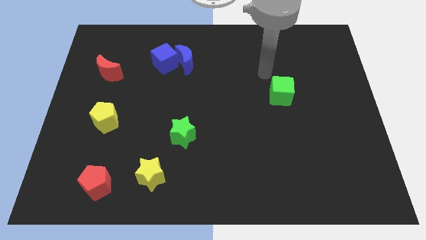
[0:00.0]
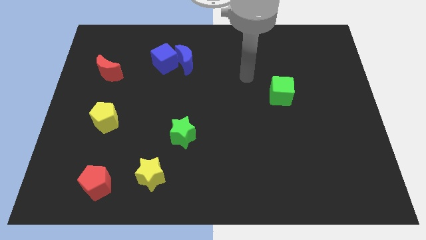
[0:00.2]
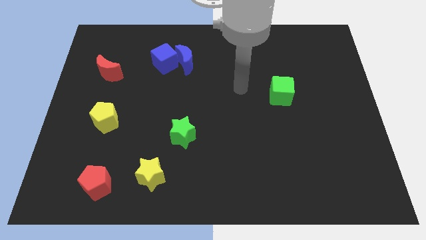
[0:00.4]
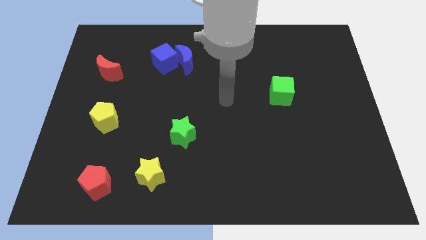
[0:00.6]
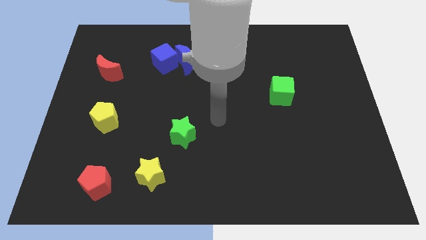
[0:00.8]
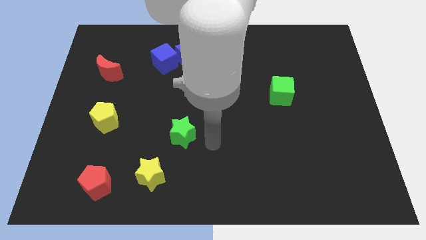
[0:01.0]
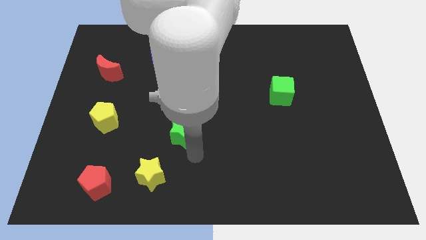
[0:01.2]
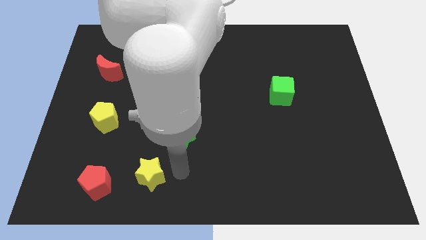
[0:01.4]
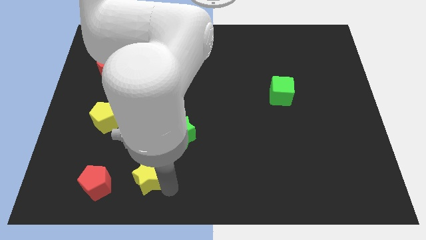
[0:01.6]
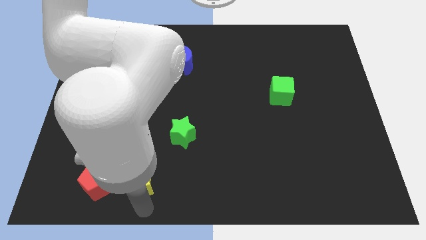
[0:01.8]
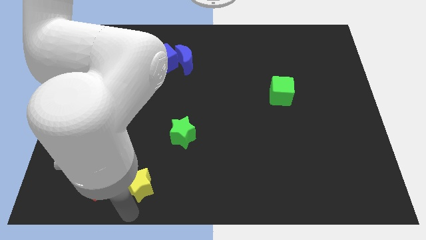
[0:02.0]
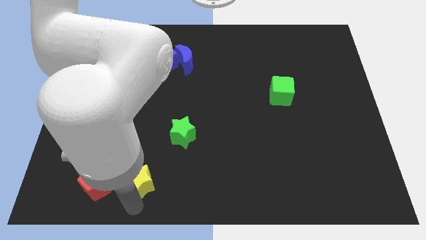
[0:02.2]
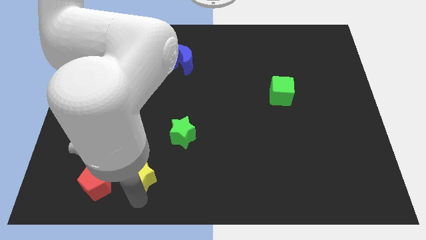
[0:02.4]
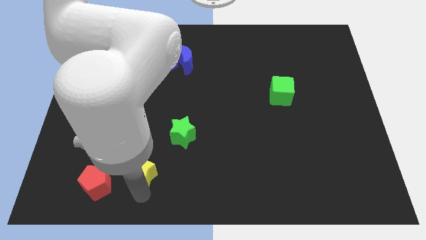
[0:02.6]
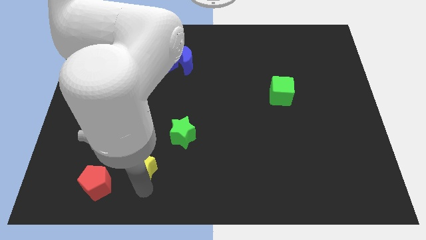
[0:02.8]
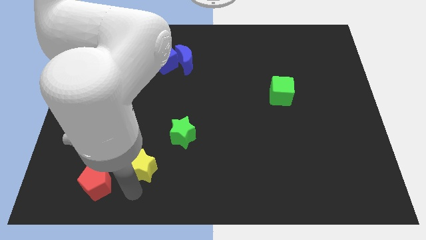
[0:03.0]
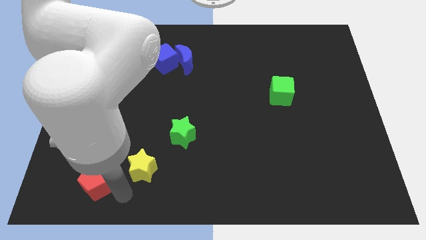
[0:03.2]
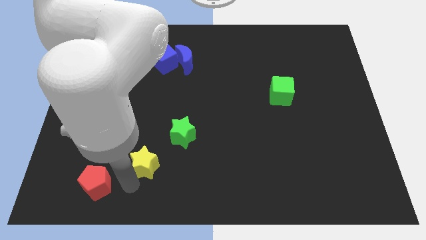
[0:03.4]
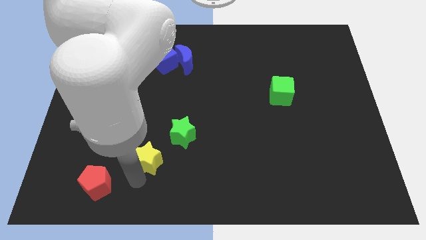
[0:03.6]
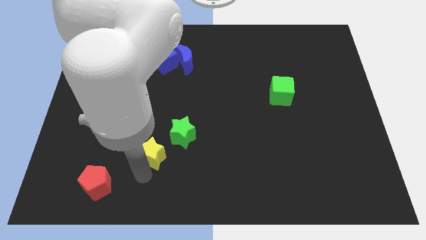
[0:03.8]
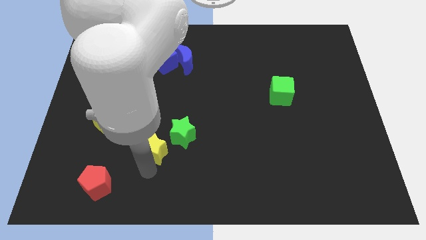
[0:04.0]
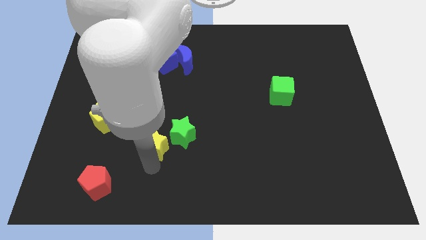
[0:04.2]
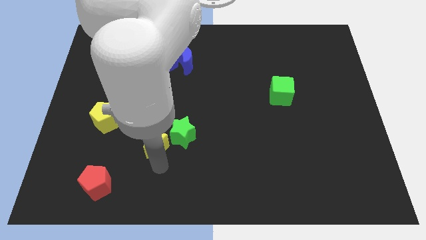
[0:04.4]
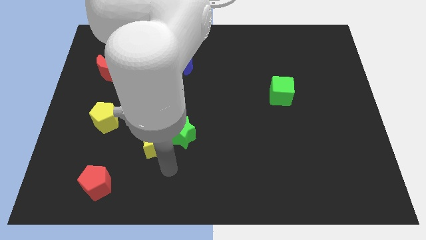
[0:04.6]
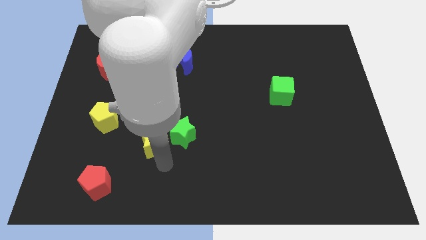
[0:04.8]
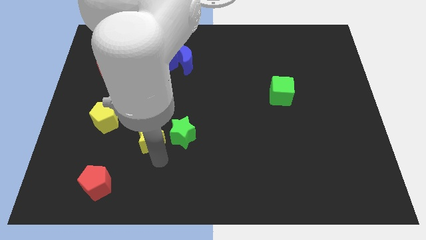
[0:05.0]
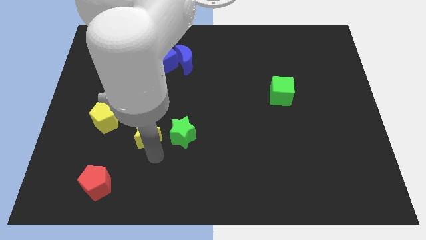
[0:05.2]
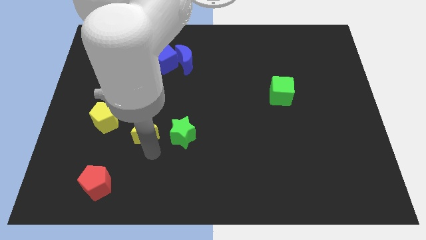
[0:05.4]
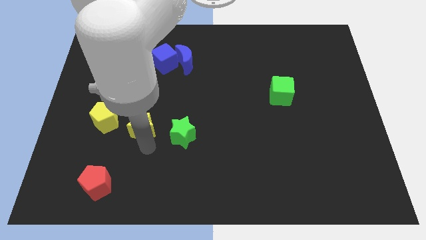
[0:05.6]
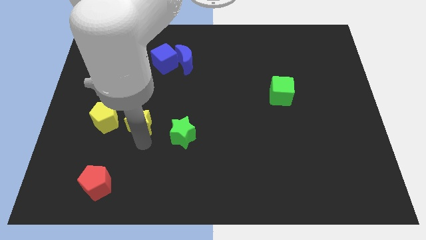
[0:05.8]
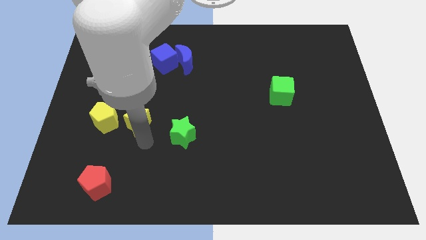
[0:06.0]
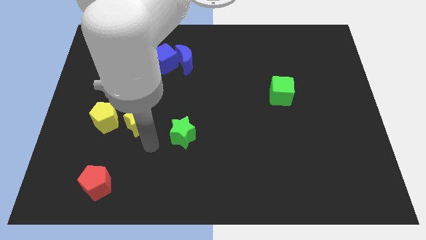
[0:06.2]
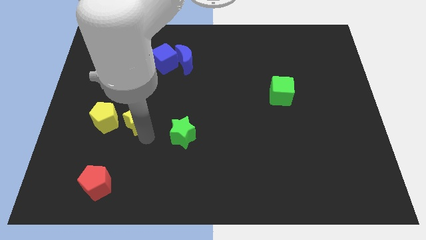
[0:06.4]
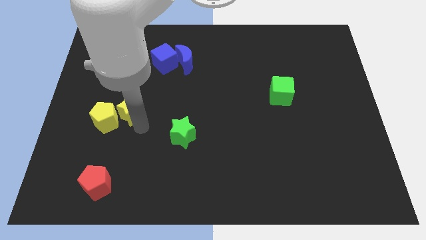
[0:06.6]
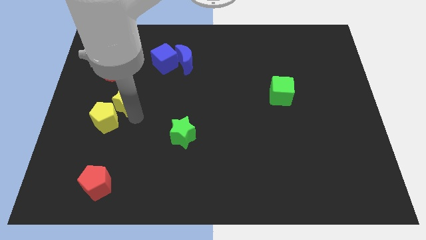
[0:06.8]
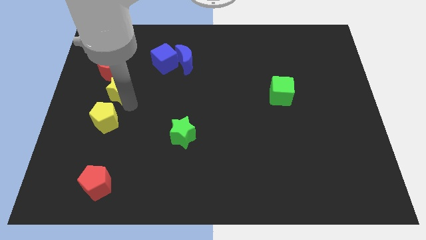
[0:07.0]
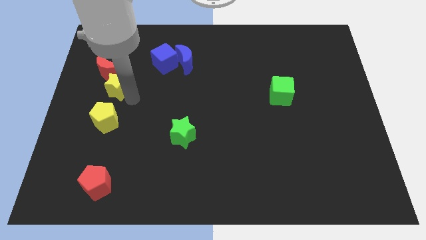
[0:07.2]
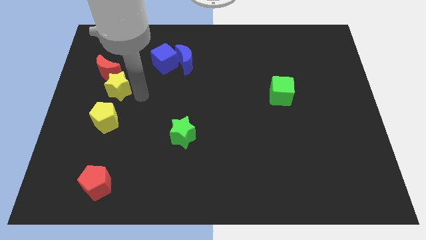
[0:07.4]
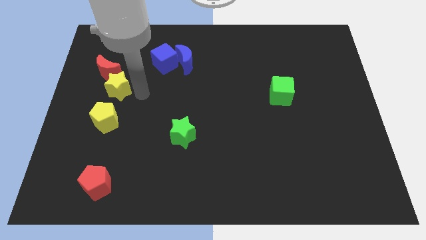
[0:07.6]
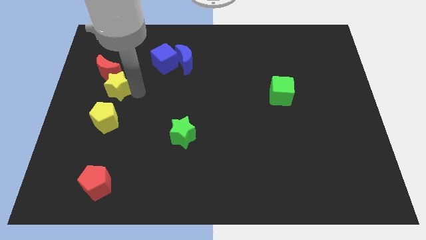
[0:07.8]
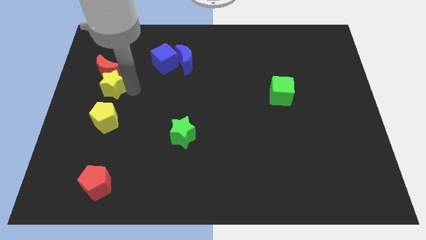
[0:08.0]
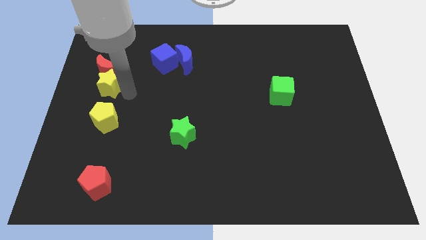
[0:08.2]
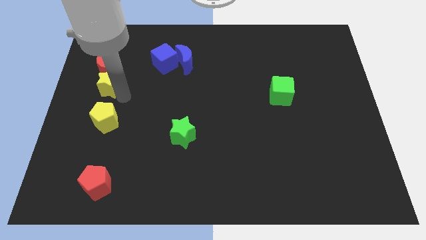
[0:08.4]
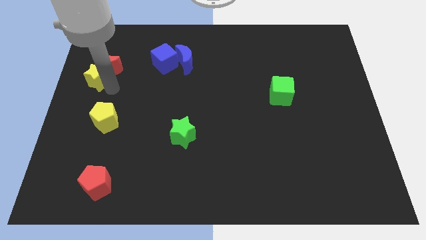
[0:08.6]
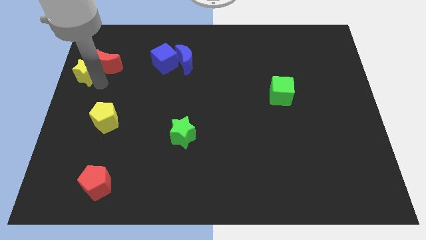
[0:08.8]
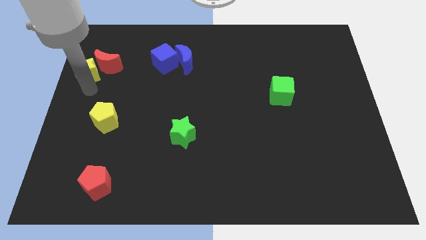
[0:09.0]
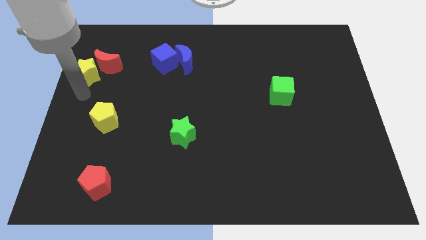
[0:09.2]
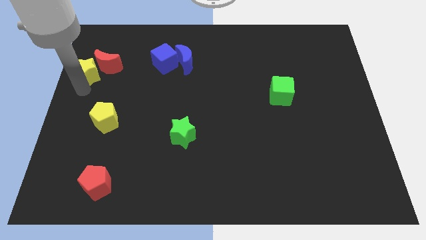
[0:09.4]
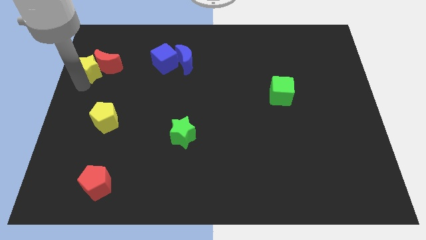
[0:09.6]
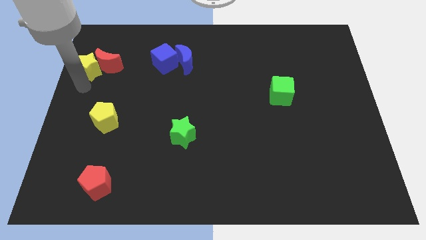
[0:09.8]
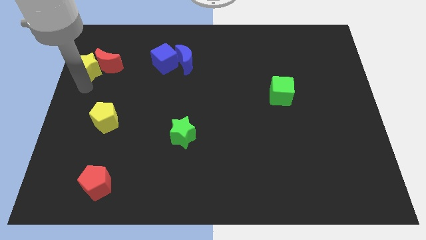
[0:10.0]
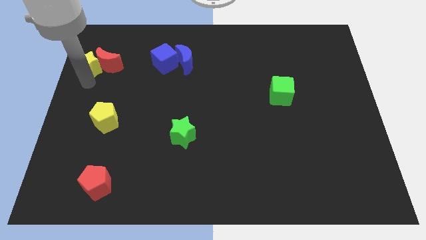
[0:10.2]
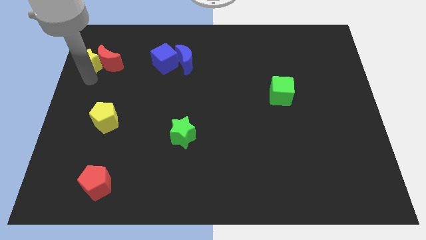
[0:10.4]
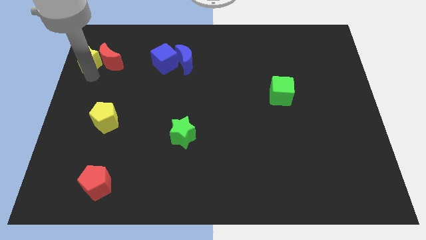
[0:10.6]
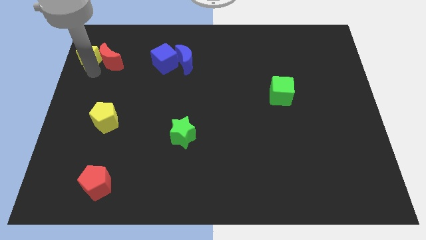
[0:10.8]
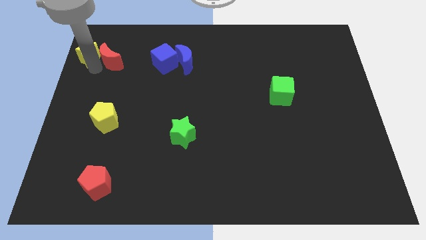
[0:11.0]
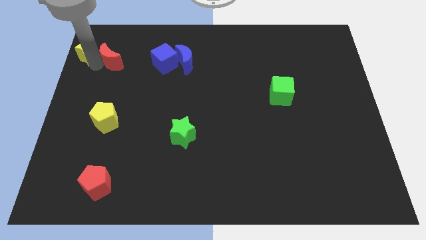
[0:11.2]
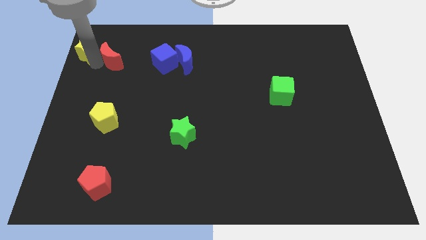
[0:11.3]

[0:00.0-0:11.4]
push the yellow star to the top left
